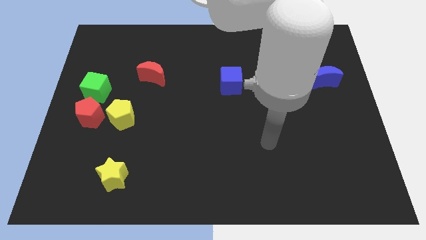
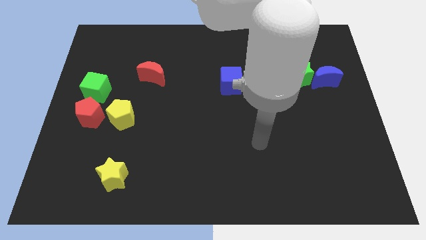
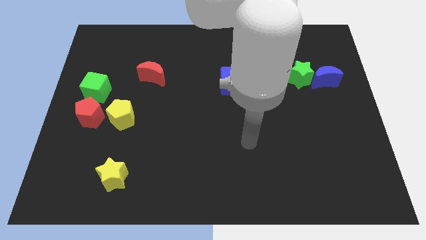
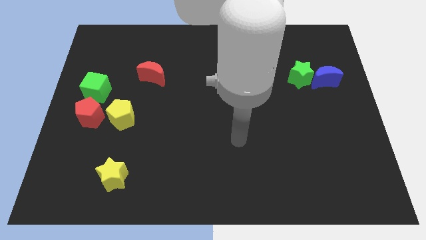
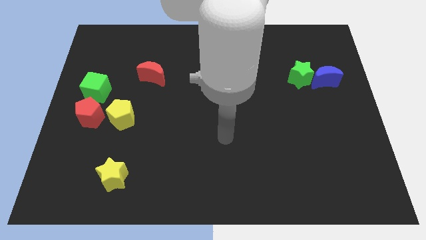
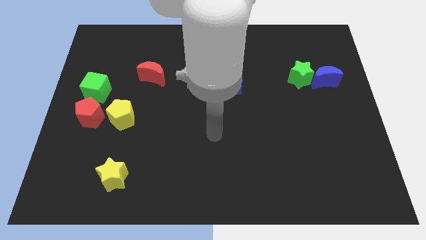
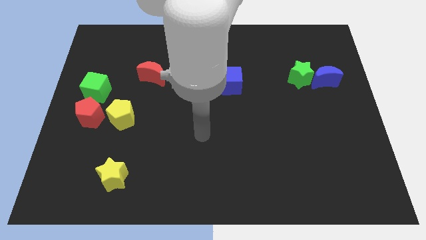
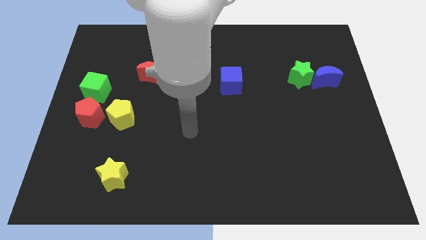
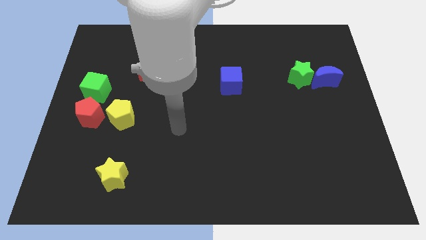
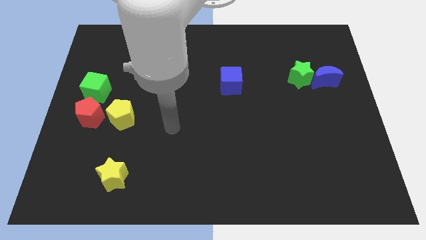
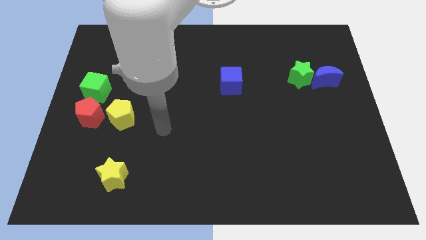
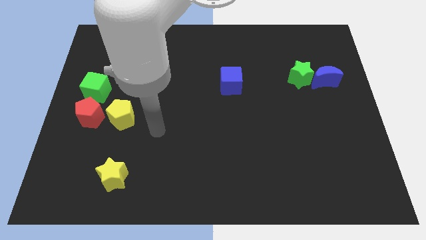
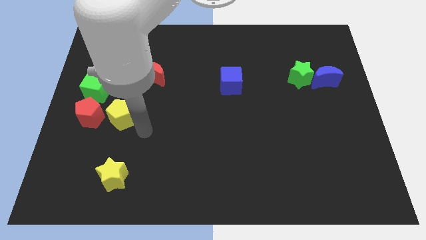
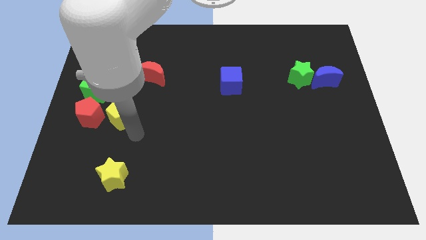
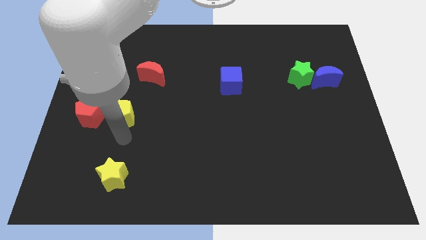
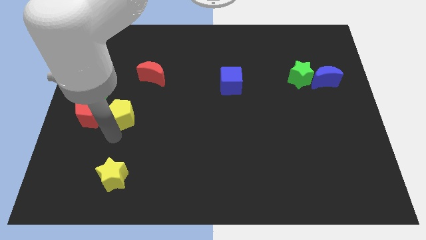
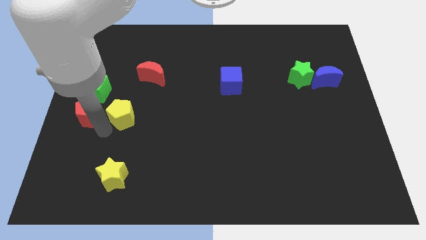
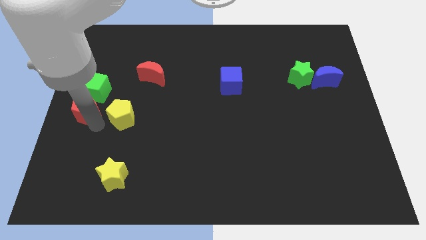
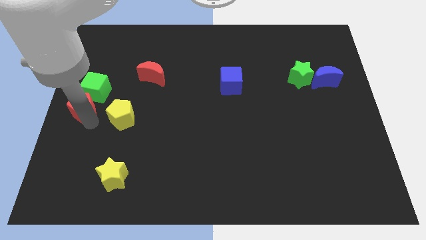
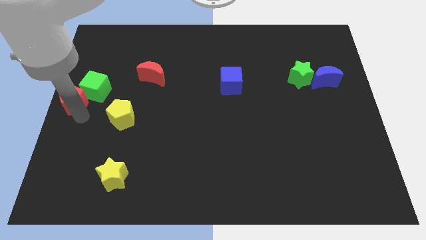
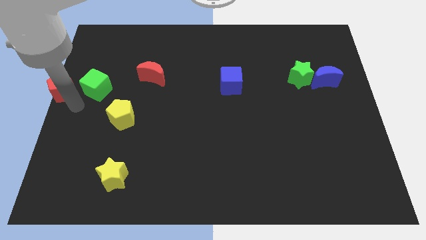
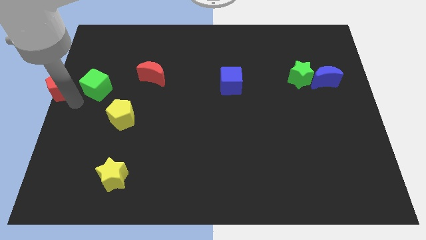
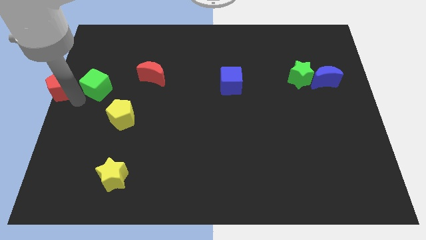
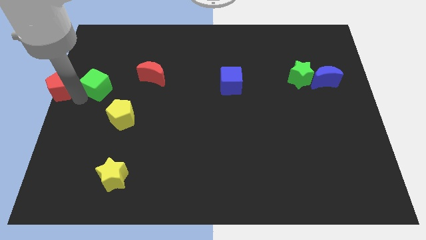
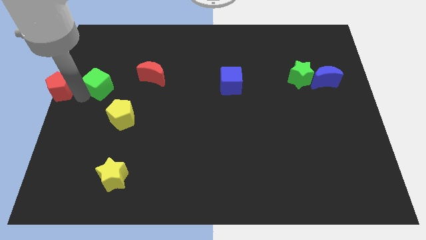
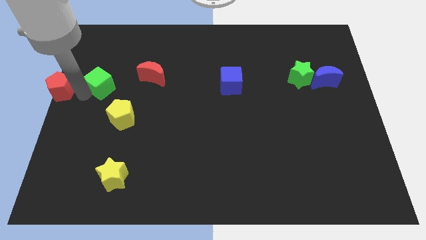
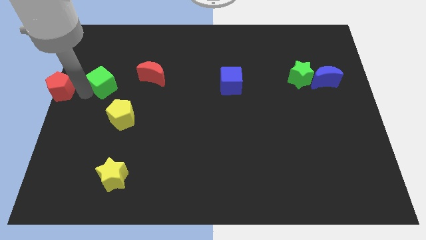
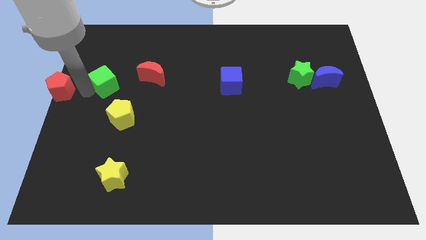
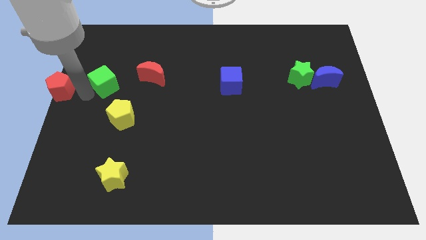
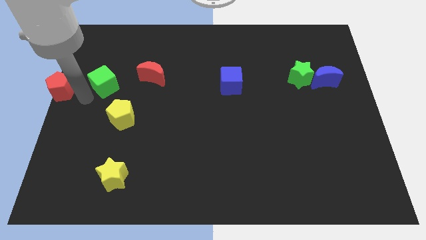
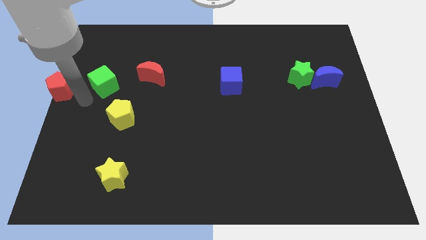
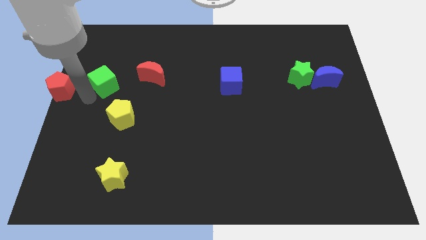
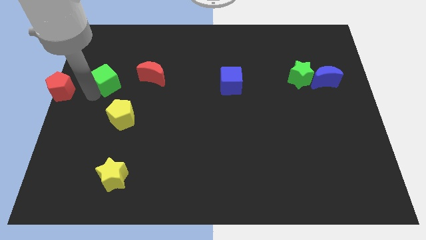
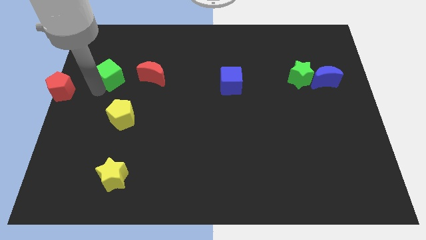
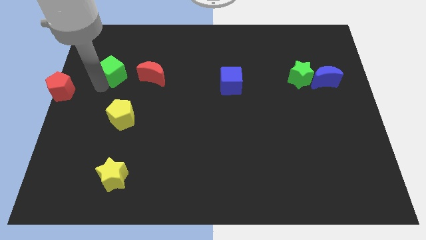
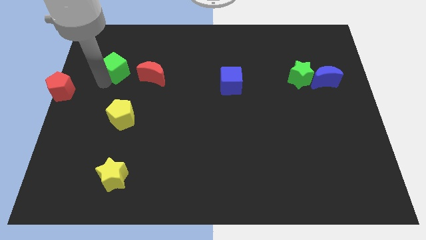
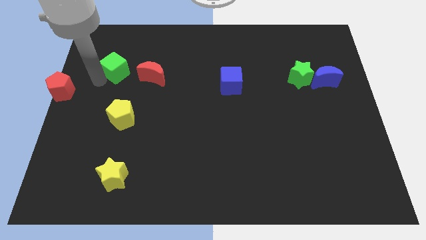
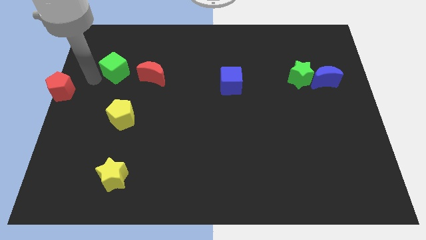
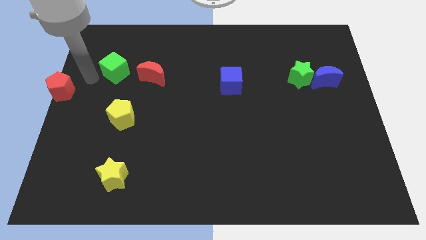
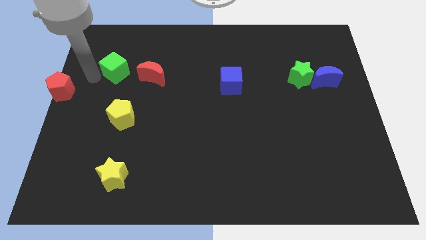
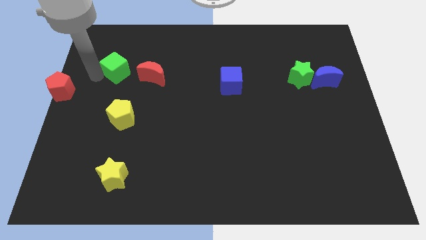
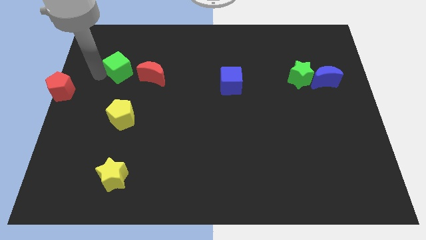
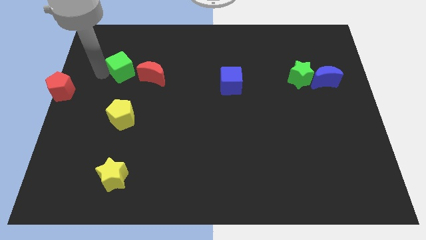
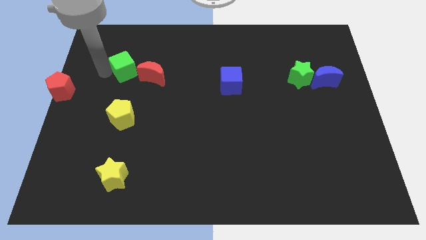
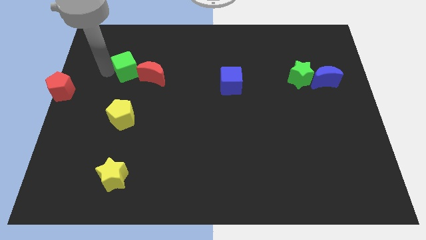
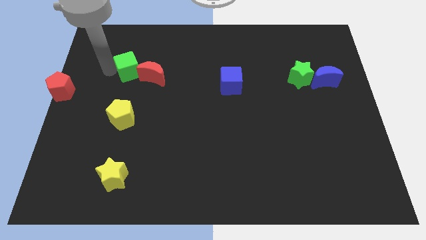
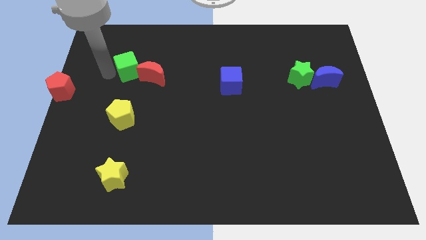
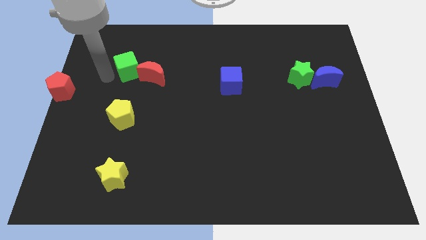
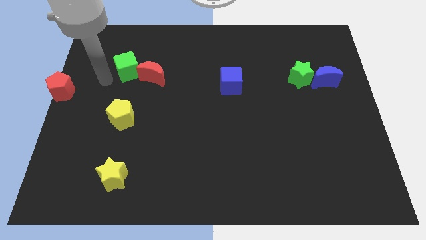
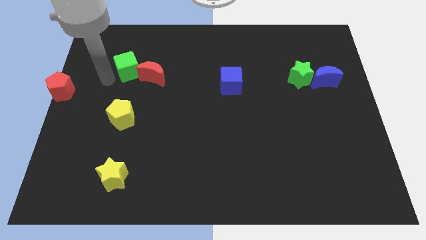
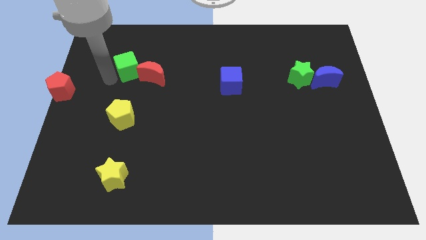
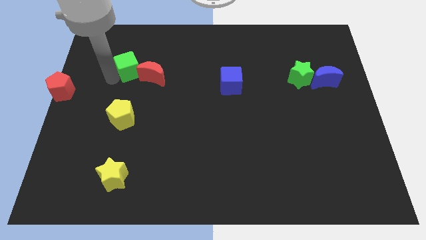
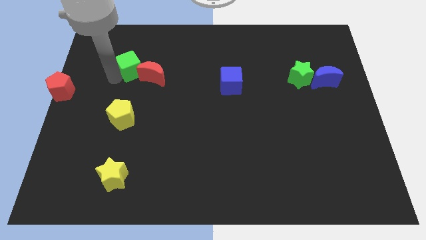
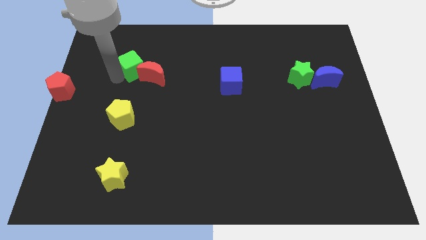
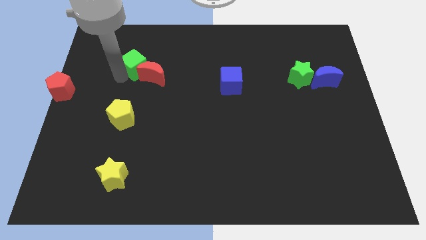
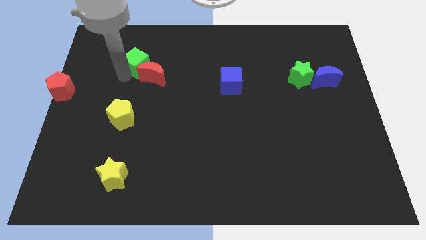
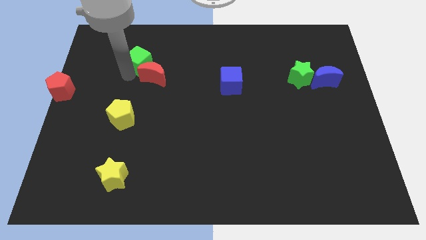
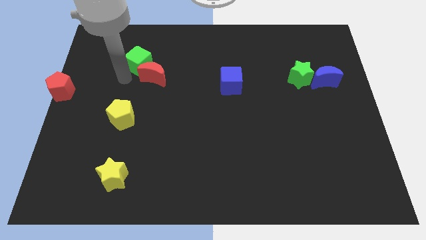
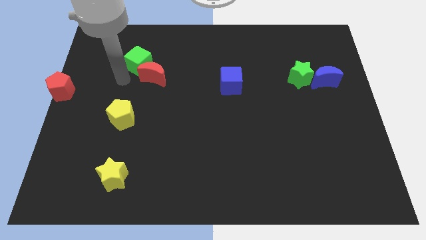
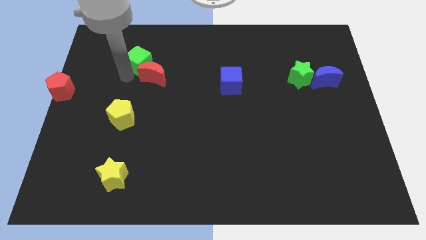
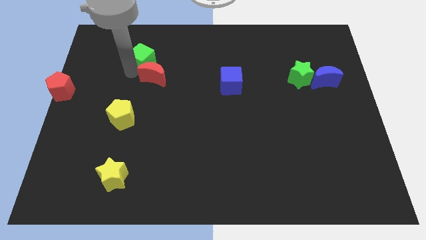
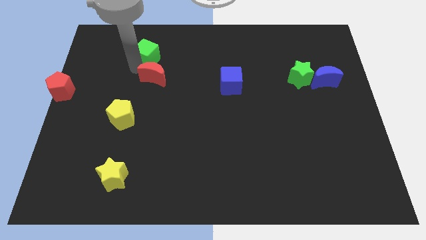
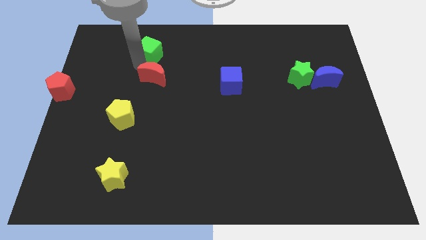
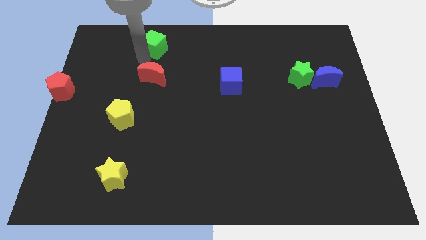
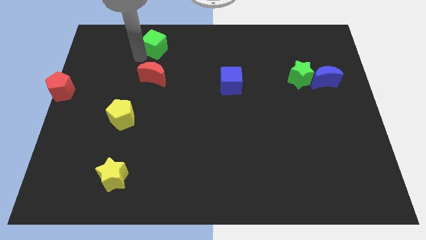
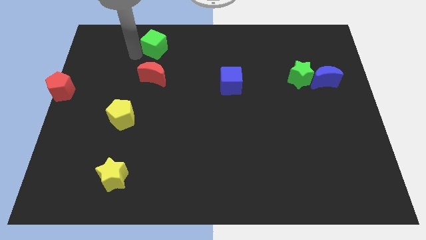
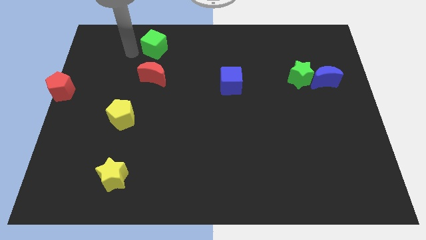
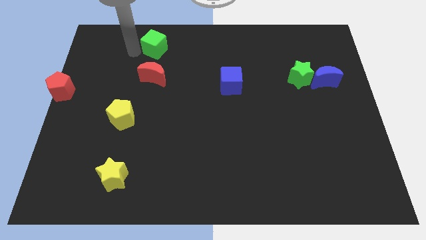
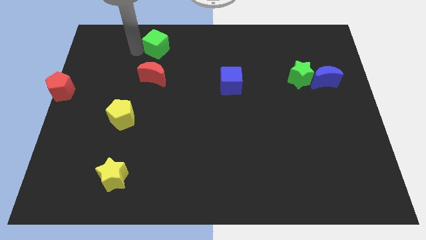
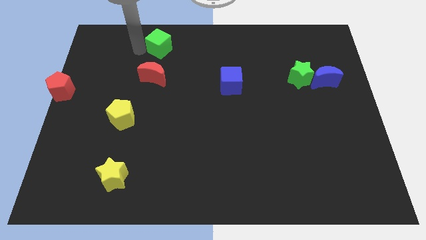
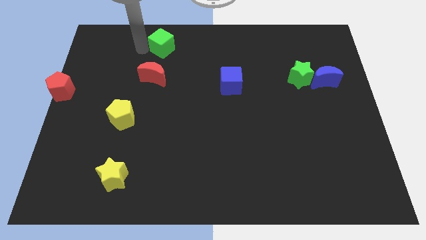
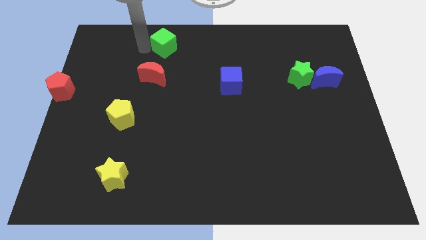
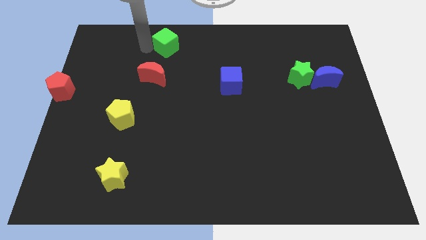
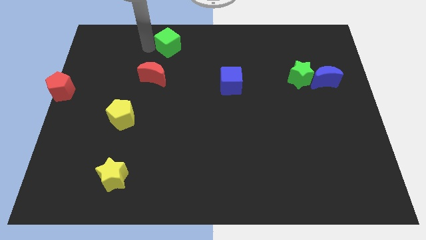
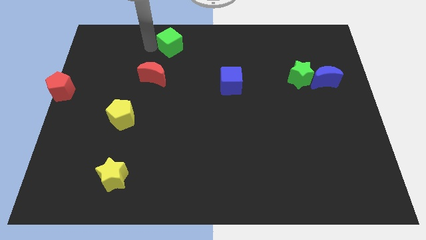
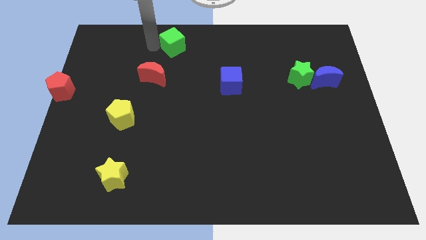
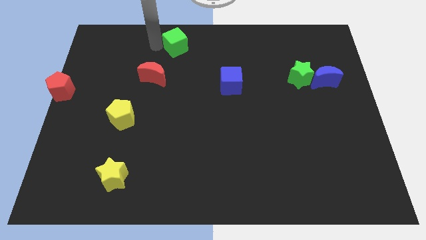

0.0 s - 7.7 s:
push the green cube to the top
